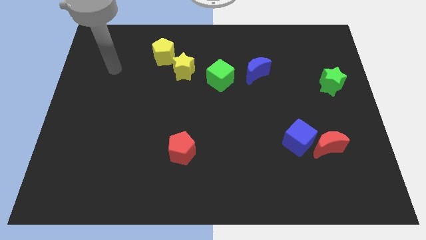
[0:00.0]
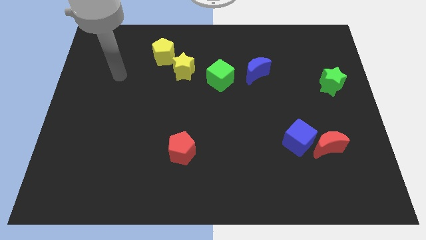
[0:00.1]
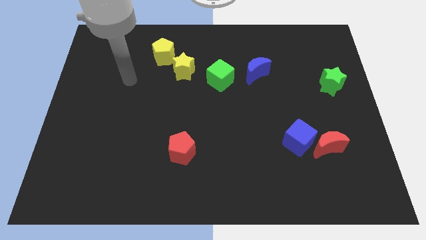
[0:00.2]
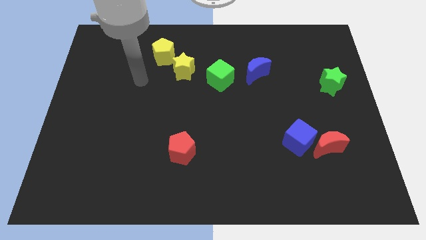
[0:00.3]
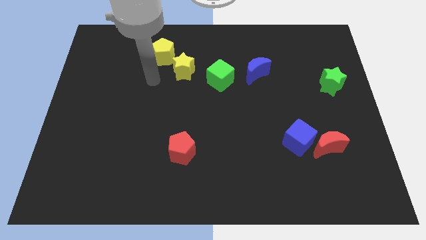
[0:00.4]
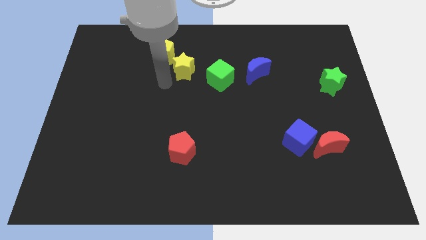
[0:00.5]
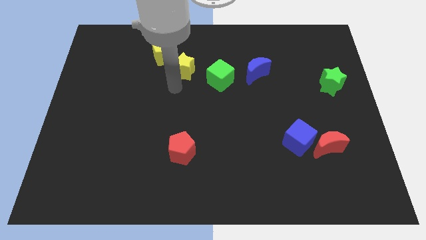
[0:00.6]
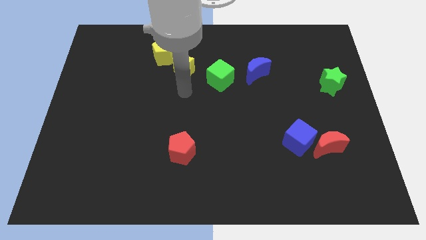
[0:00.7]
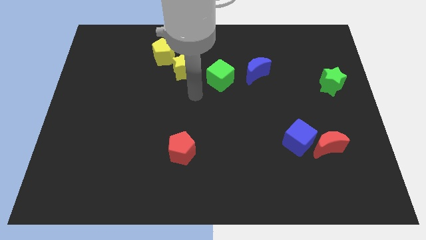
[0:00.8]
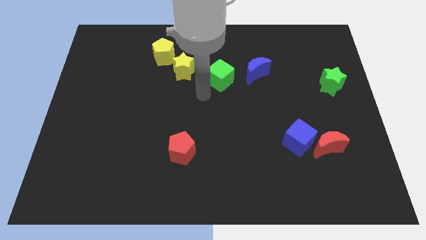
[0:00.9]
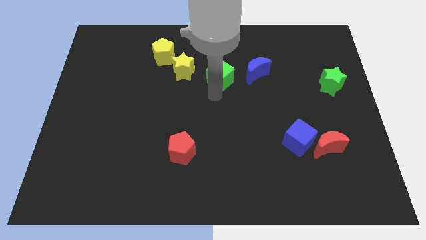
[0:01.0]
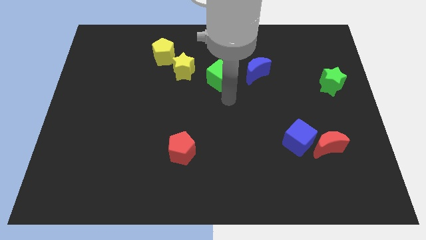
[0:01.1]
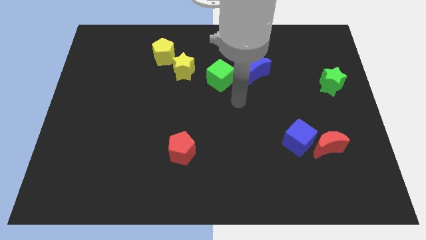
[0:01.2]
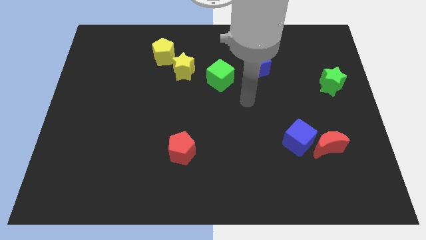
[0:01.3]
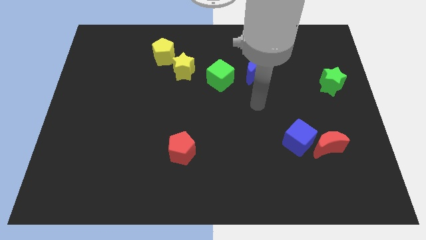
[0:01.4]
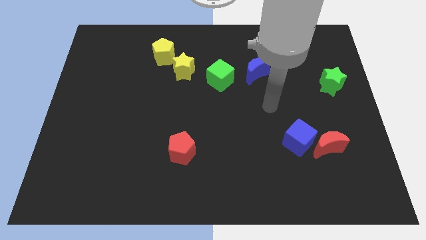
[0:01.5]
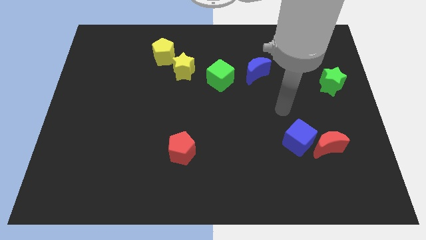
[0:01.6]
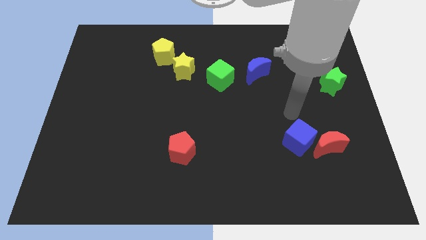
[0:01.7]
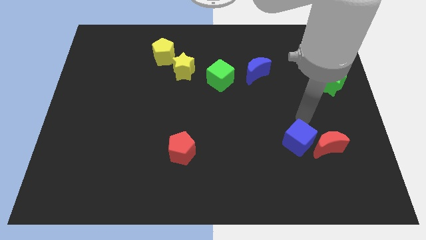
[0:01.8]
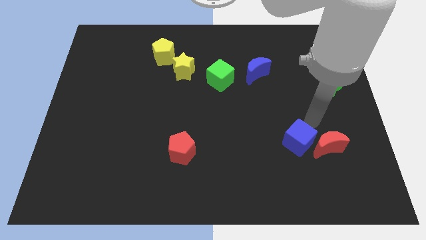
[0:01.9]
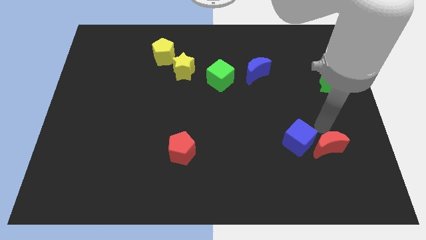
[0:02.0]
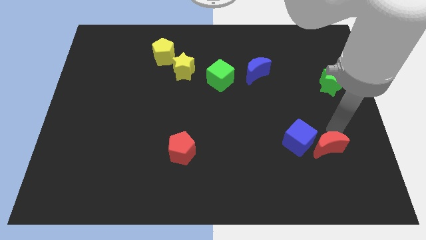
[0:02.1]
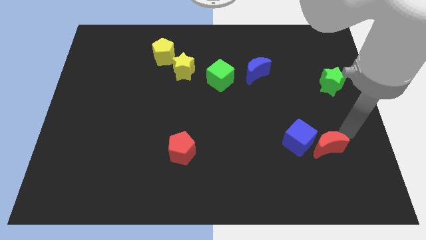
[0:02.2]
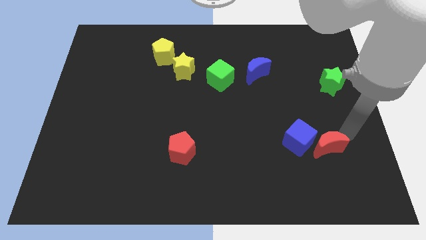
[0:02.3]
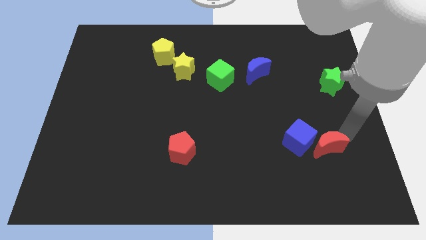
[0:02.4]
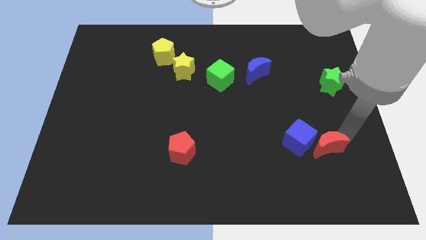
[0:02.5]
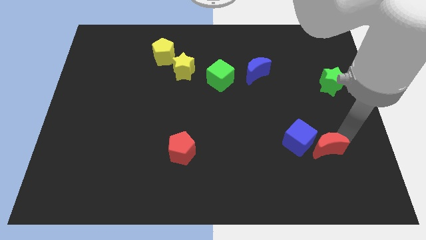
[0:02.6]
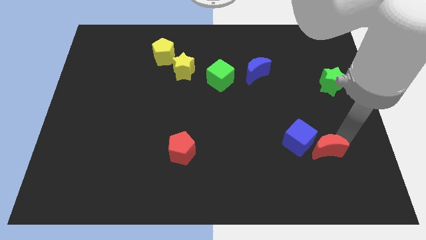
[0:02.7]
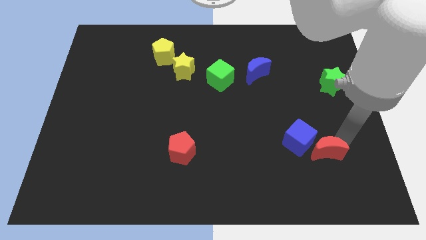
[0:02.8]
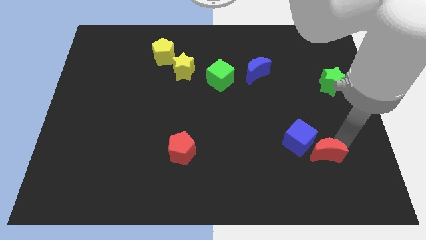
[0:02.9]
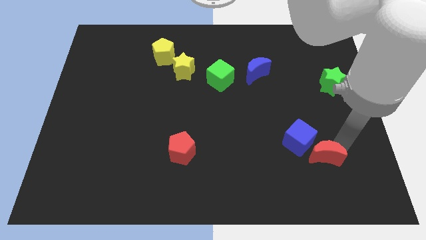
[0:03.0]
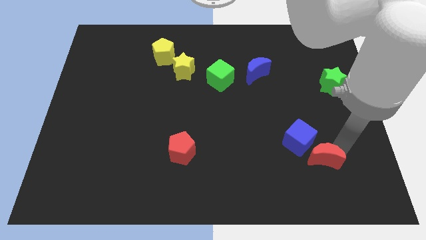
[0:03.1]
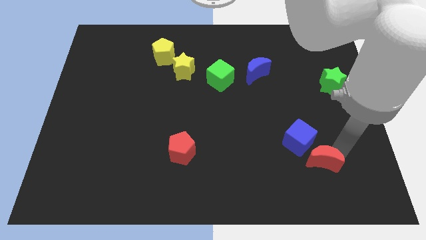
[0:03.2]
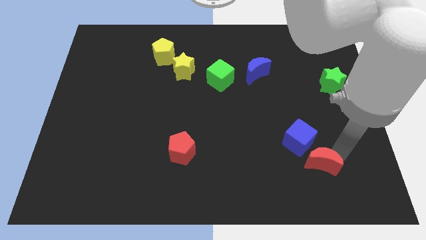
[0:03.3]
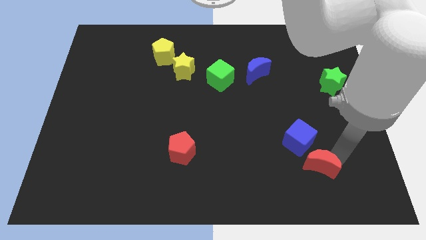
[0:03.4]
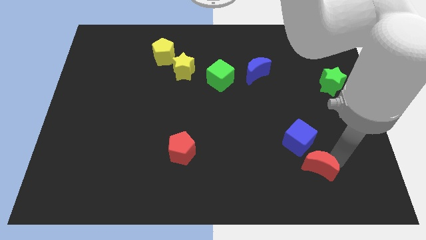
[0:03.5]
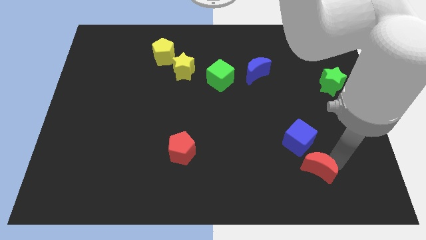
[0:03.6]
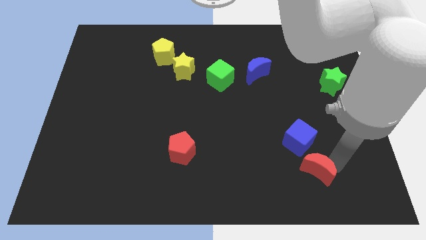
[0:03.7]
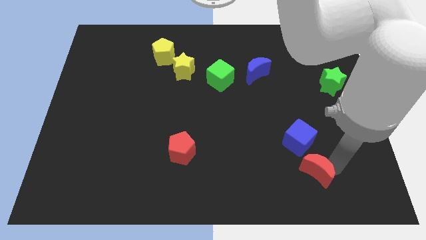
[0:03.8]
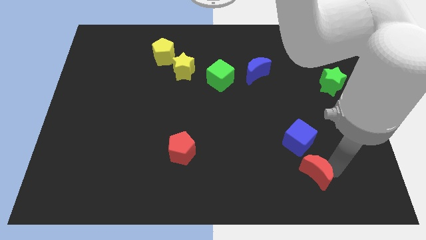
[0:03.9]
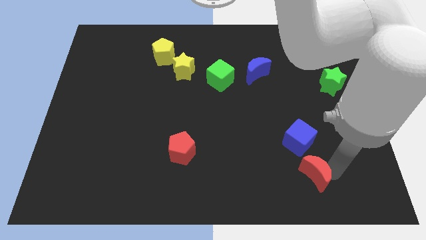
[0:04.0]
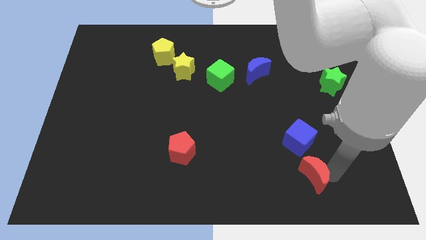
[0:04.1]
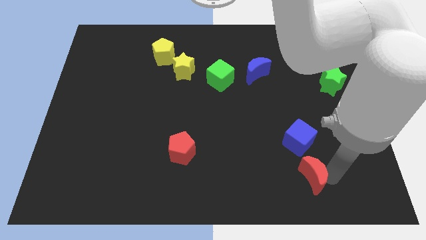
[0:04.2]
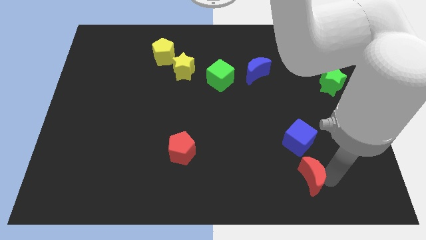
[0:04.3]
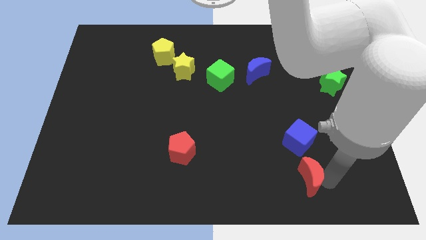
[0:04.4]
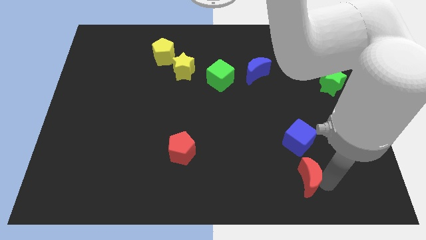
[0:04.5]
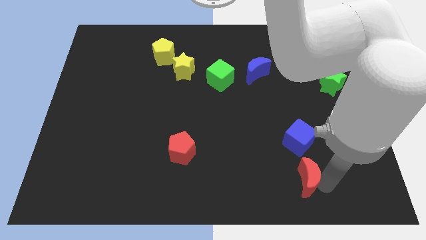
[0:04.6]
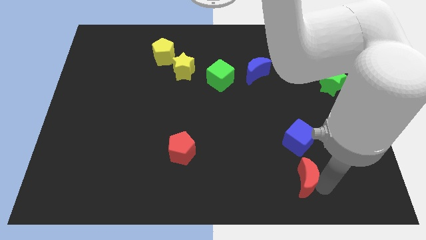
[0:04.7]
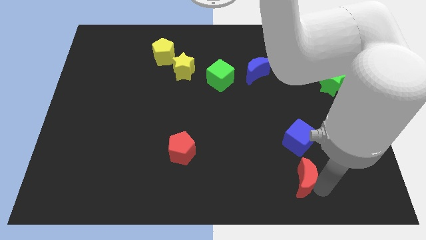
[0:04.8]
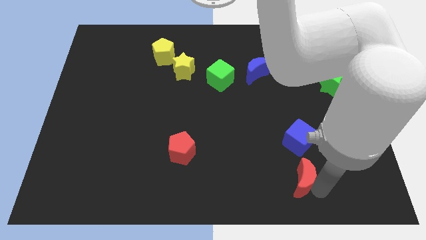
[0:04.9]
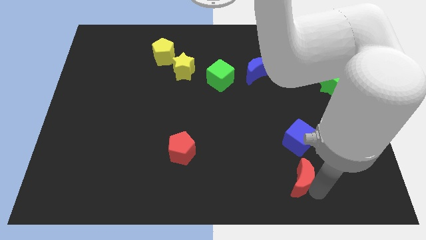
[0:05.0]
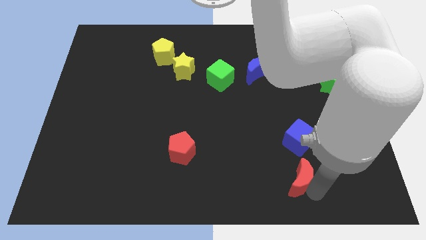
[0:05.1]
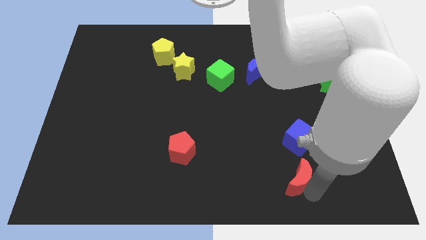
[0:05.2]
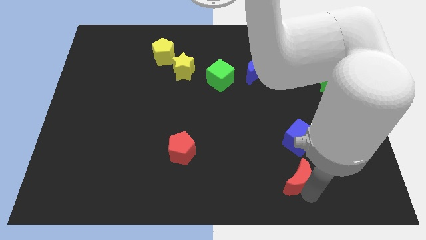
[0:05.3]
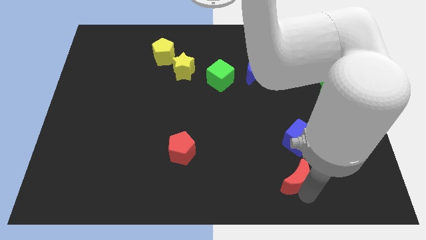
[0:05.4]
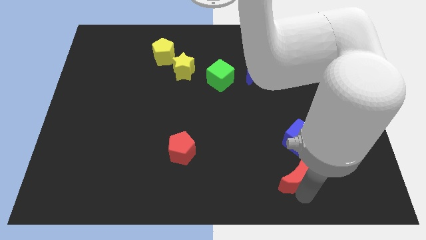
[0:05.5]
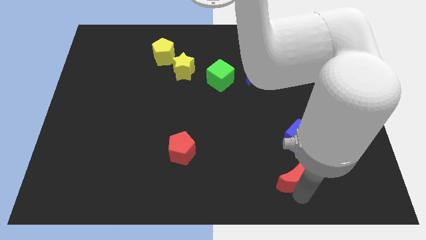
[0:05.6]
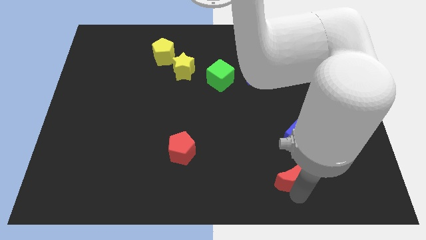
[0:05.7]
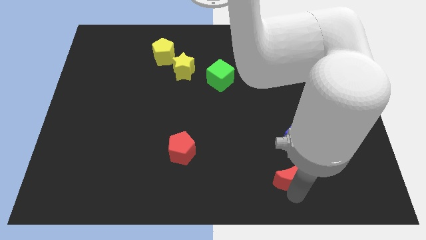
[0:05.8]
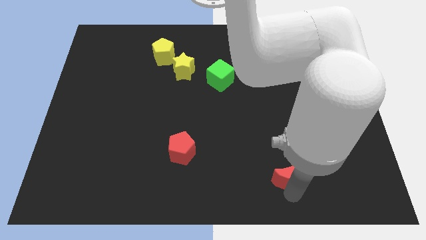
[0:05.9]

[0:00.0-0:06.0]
slightly slide the red moon to the left

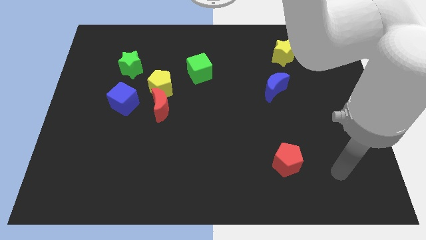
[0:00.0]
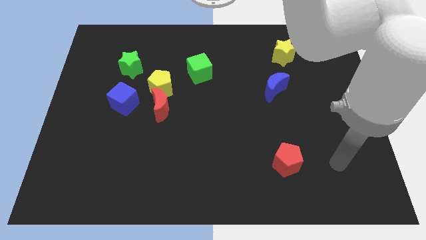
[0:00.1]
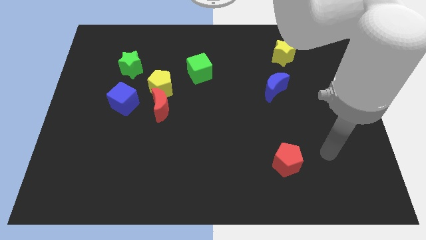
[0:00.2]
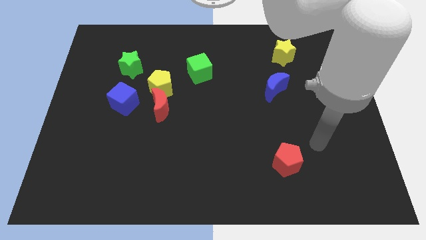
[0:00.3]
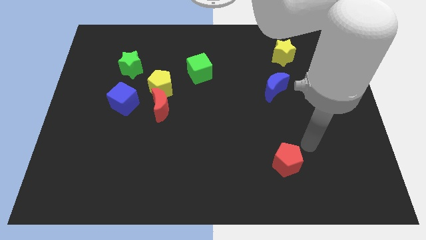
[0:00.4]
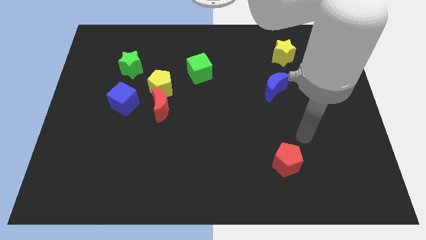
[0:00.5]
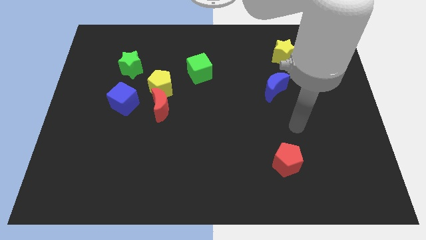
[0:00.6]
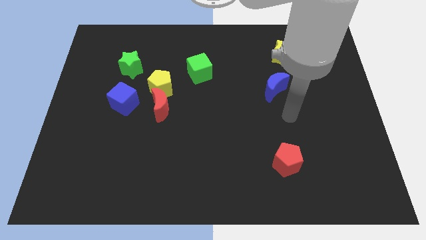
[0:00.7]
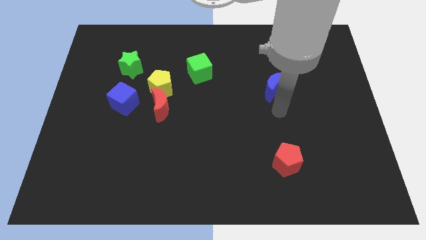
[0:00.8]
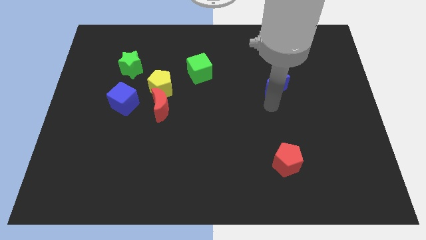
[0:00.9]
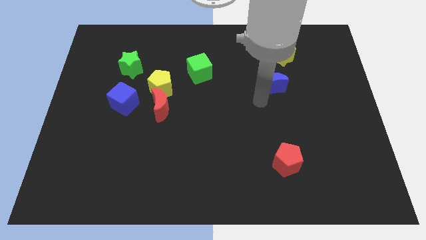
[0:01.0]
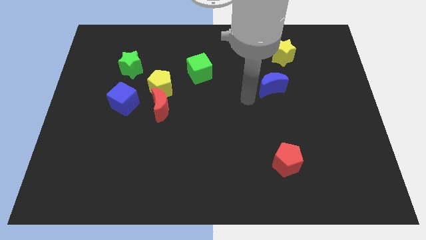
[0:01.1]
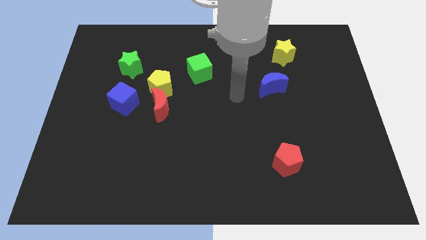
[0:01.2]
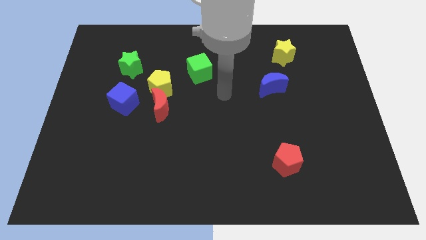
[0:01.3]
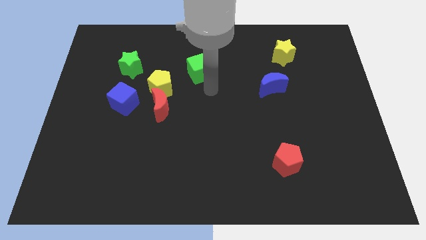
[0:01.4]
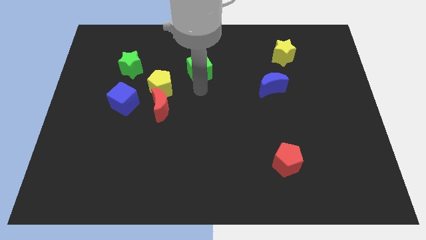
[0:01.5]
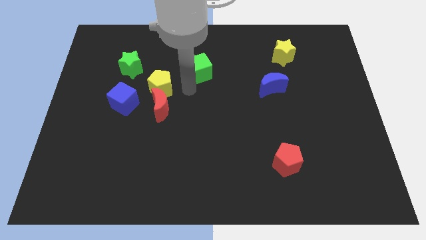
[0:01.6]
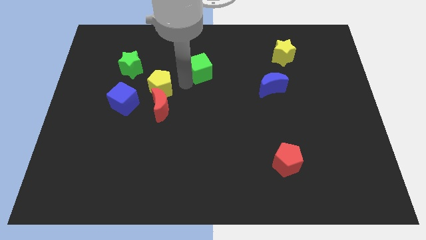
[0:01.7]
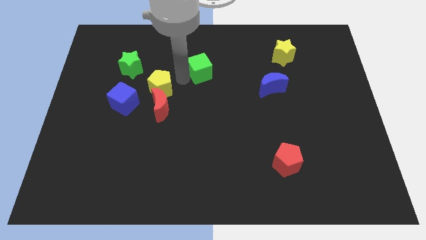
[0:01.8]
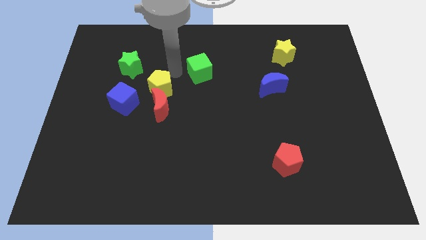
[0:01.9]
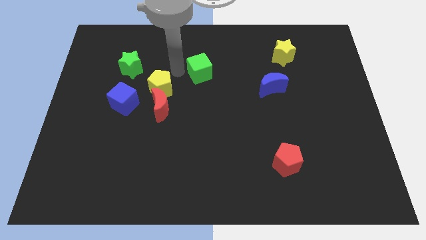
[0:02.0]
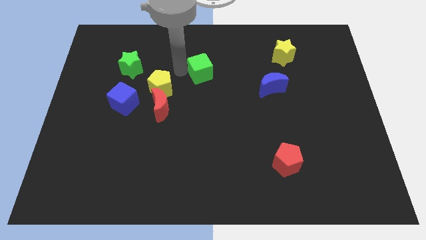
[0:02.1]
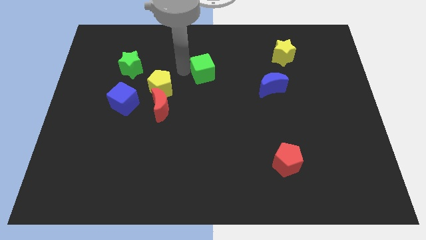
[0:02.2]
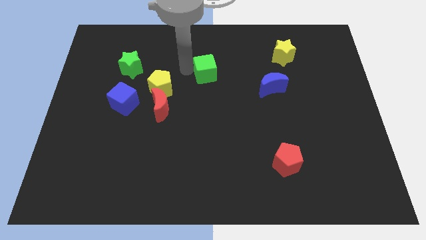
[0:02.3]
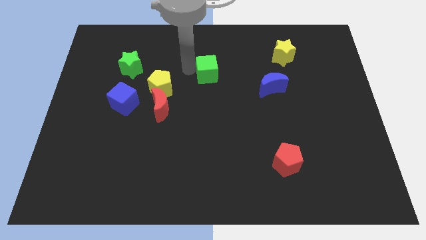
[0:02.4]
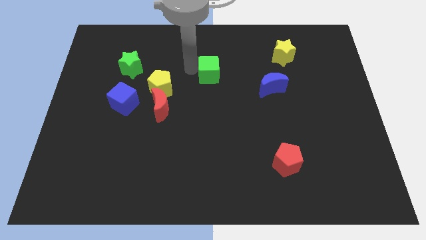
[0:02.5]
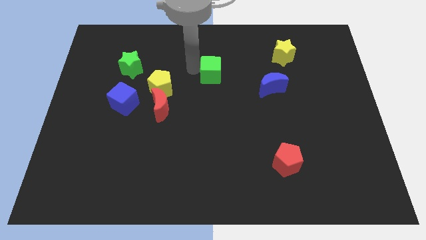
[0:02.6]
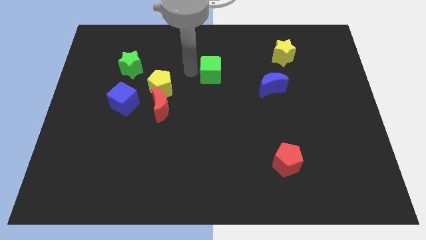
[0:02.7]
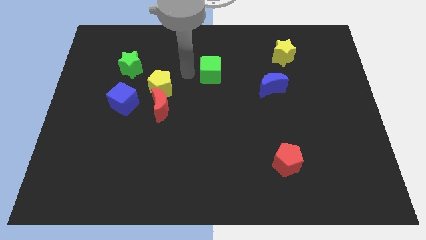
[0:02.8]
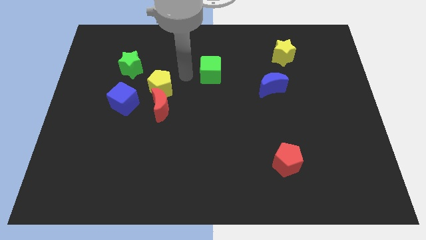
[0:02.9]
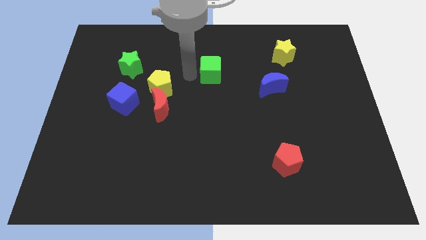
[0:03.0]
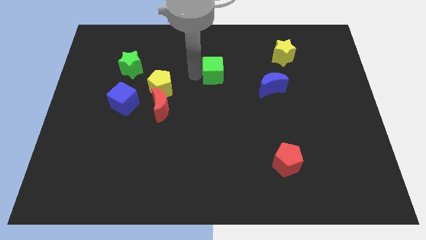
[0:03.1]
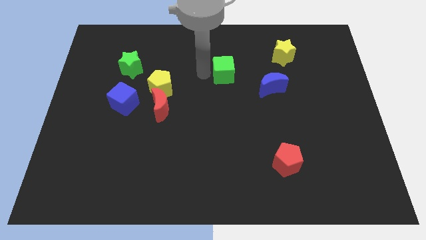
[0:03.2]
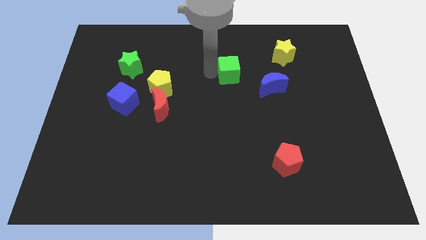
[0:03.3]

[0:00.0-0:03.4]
slide the green cube somewhat to the right
